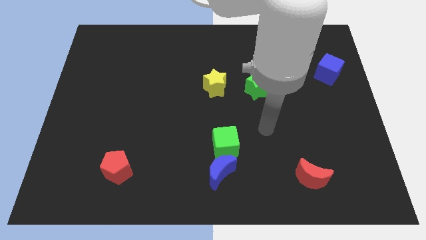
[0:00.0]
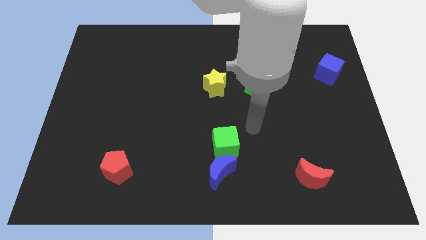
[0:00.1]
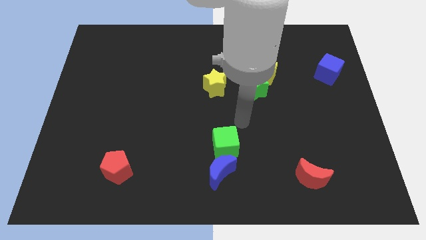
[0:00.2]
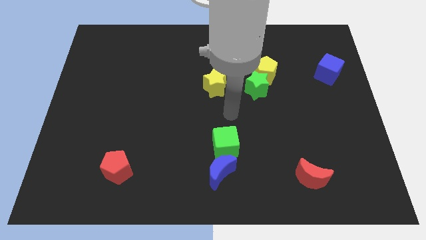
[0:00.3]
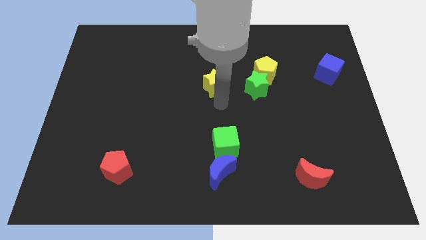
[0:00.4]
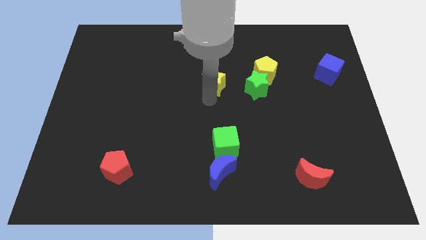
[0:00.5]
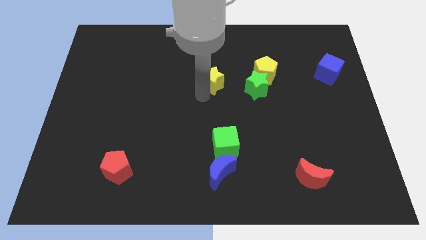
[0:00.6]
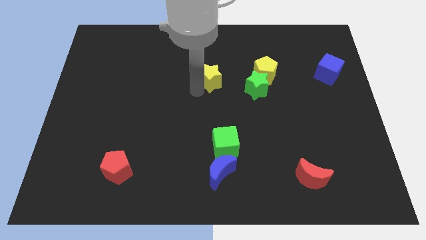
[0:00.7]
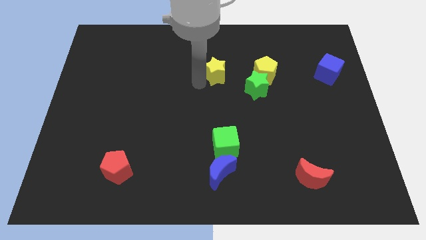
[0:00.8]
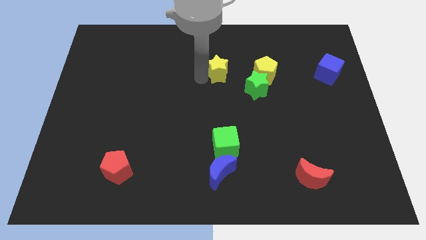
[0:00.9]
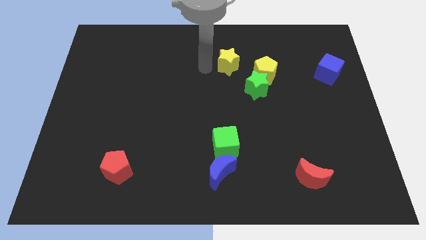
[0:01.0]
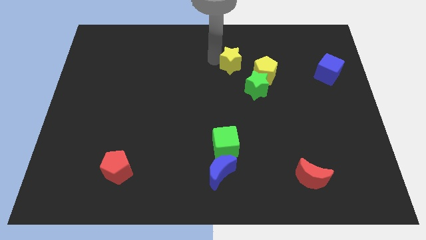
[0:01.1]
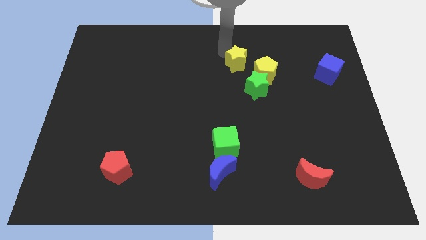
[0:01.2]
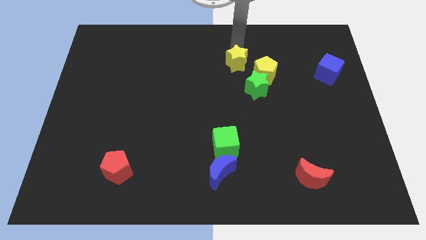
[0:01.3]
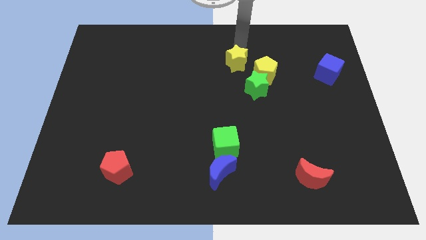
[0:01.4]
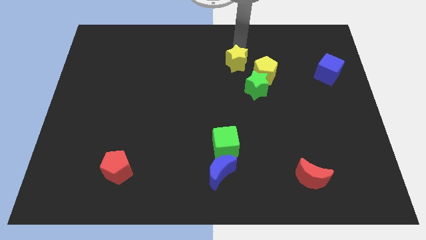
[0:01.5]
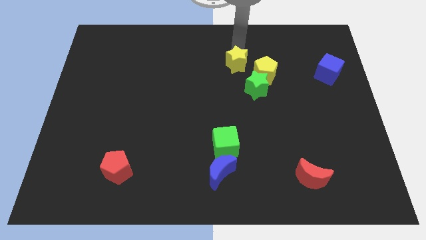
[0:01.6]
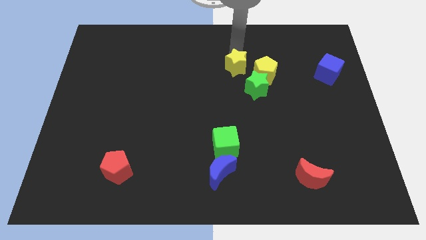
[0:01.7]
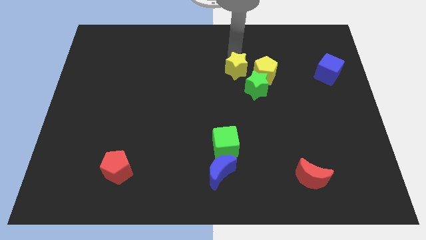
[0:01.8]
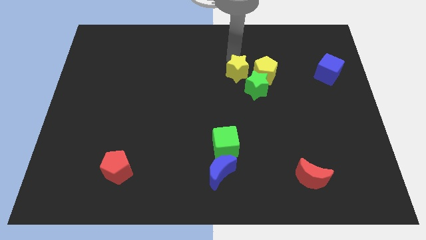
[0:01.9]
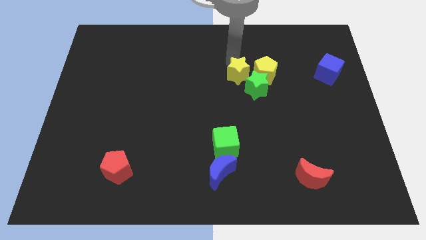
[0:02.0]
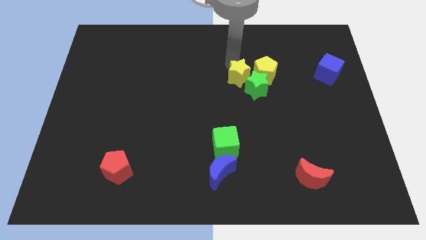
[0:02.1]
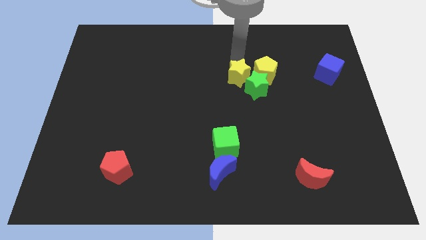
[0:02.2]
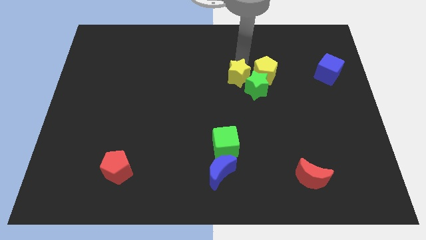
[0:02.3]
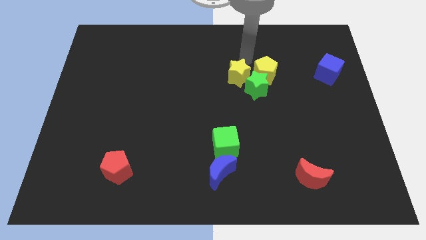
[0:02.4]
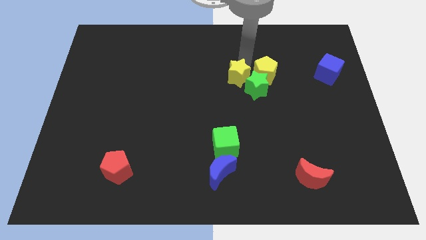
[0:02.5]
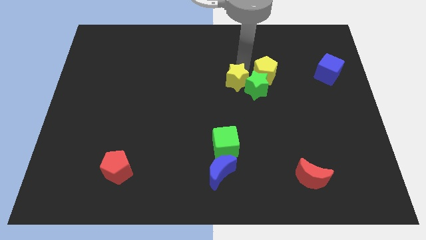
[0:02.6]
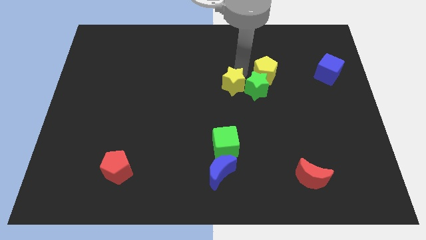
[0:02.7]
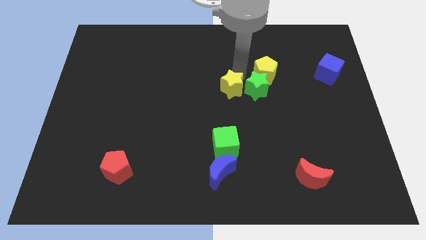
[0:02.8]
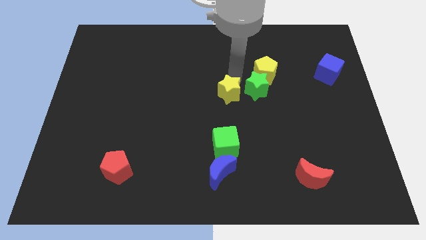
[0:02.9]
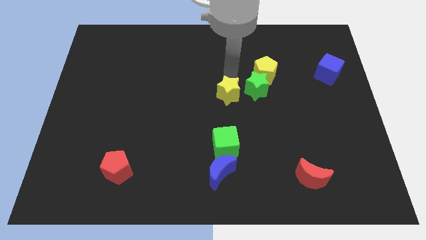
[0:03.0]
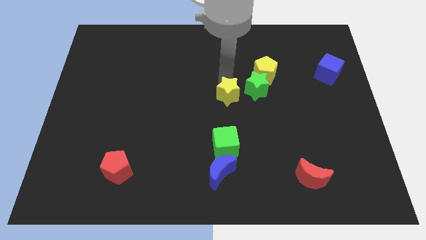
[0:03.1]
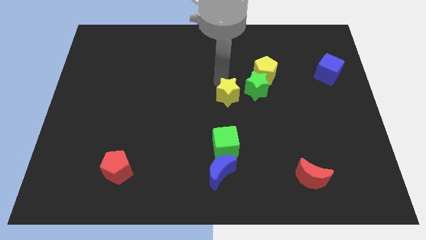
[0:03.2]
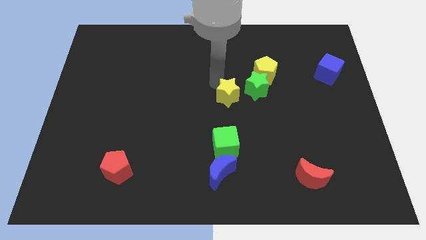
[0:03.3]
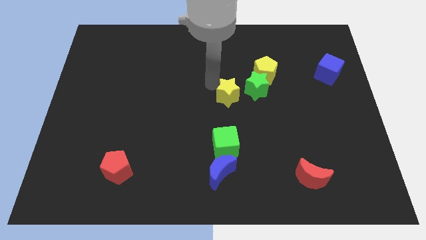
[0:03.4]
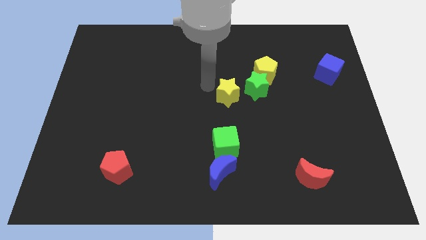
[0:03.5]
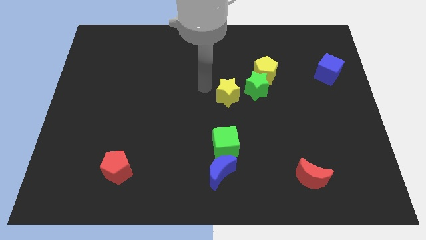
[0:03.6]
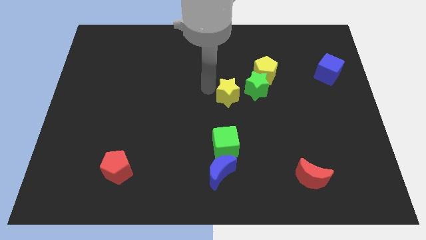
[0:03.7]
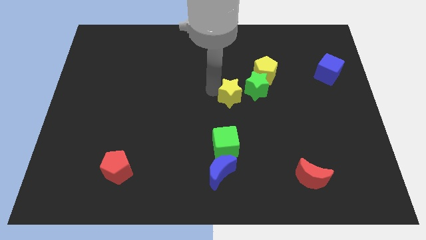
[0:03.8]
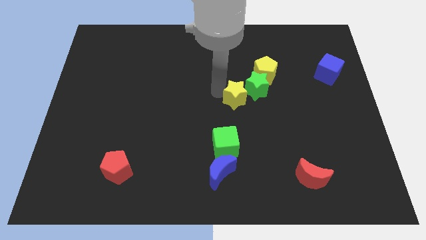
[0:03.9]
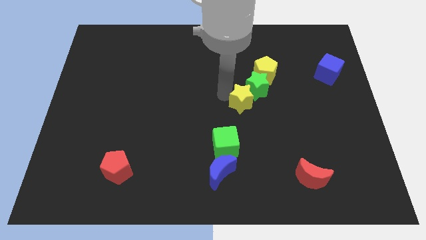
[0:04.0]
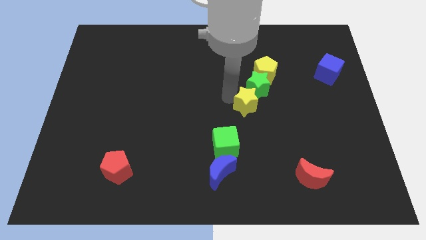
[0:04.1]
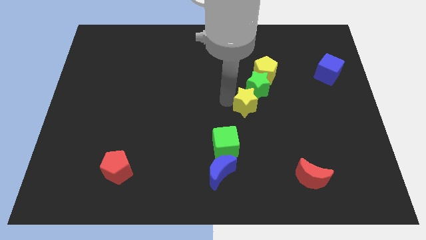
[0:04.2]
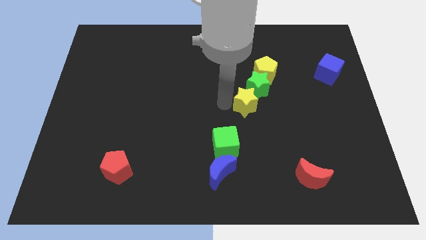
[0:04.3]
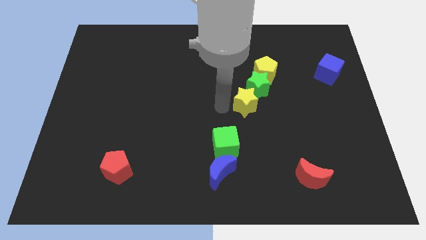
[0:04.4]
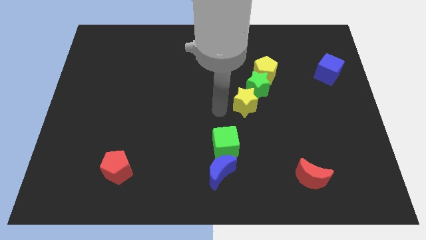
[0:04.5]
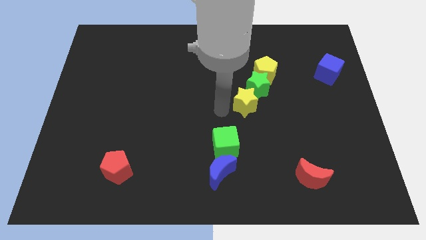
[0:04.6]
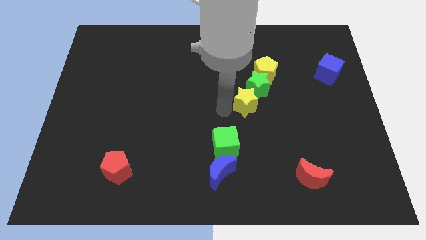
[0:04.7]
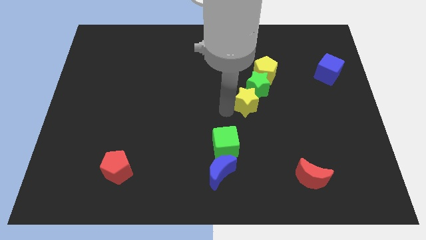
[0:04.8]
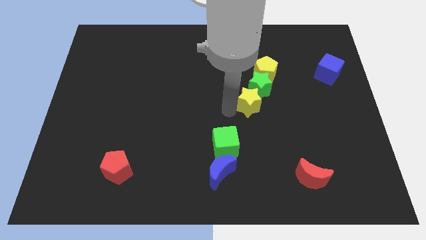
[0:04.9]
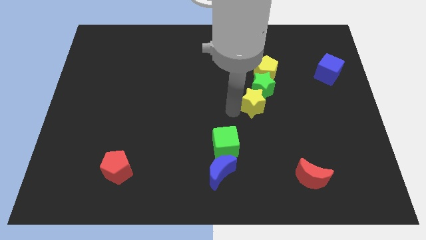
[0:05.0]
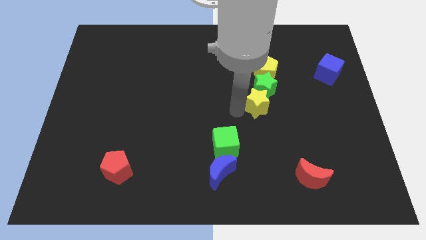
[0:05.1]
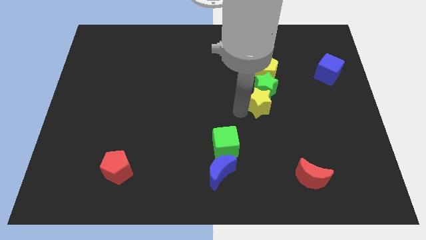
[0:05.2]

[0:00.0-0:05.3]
move the yellow star diagonally down and to the right of the green star

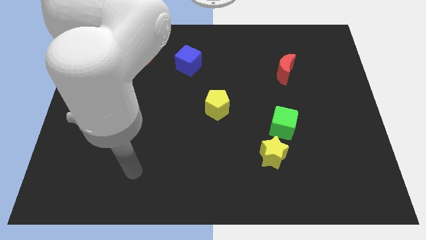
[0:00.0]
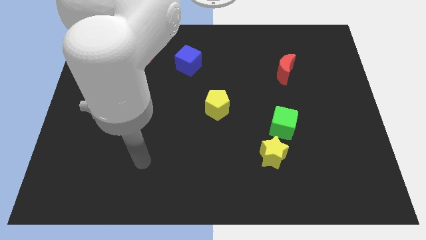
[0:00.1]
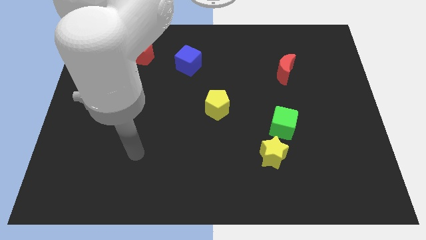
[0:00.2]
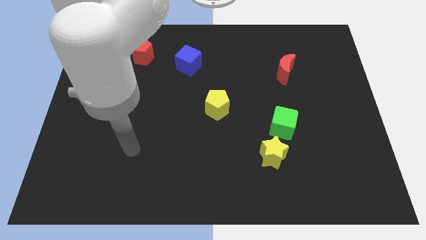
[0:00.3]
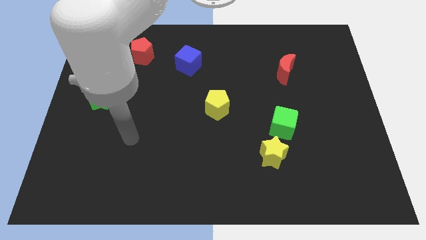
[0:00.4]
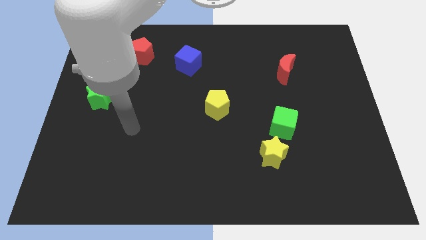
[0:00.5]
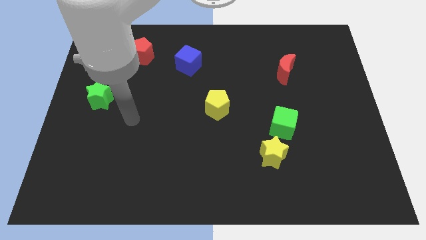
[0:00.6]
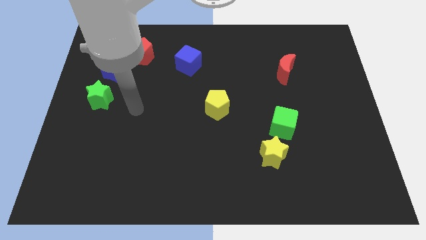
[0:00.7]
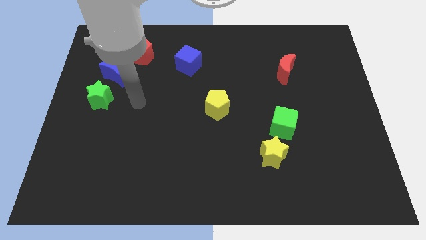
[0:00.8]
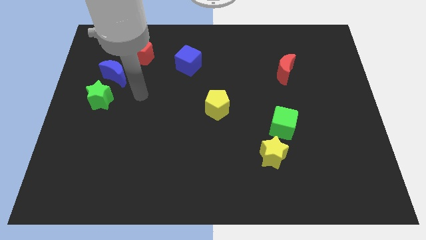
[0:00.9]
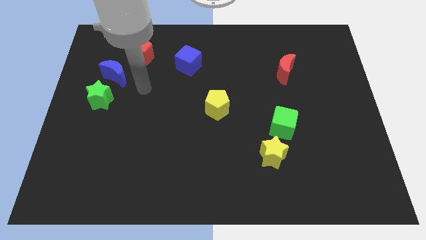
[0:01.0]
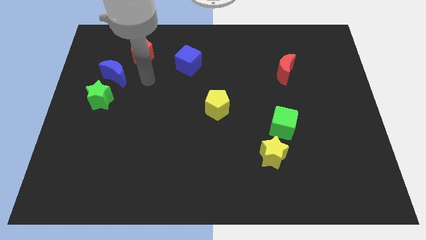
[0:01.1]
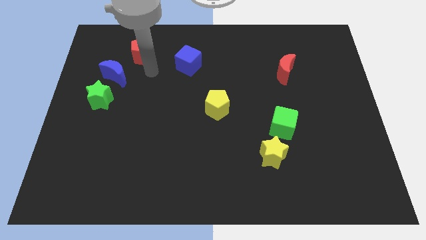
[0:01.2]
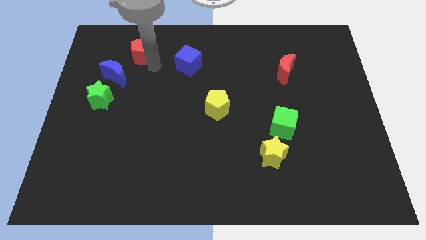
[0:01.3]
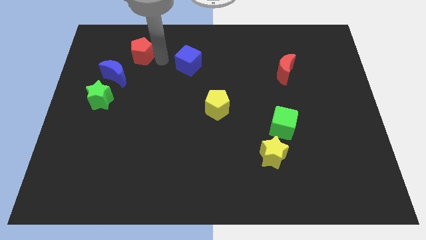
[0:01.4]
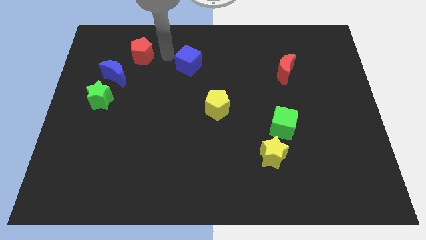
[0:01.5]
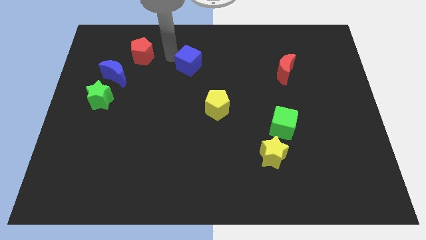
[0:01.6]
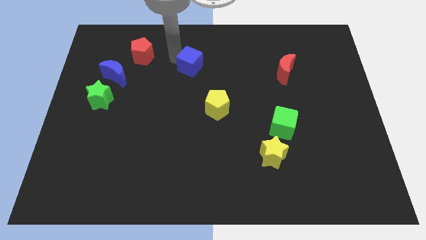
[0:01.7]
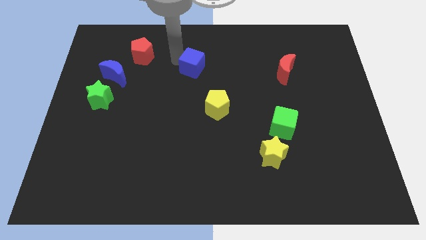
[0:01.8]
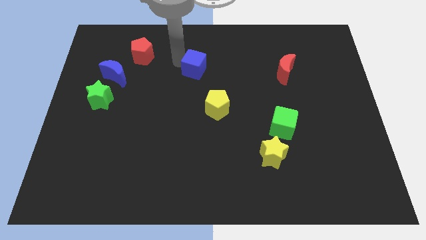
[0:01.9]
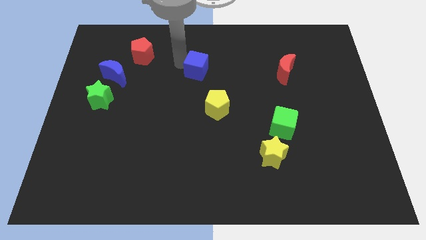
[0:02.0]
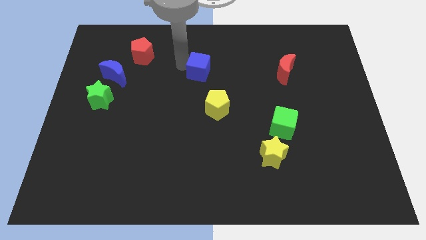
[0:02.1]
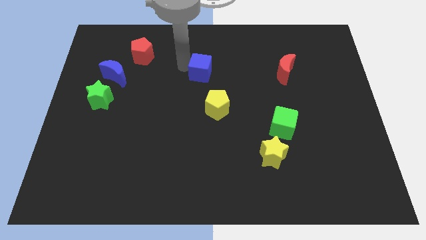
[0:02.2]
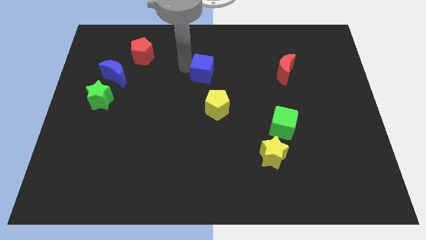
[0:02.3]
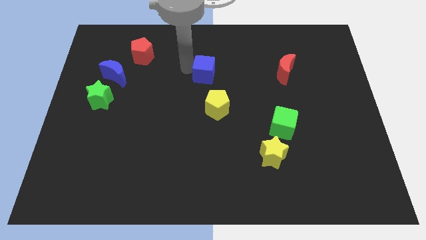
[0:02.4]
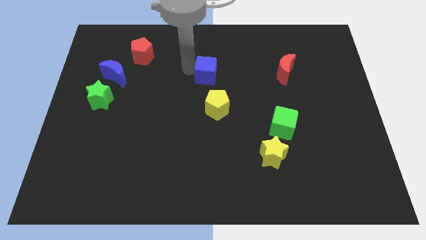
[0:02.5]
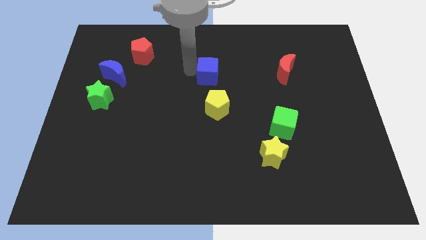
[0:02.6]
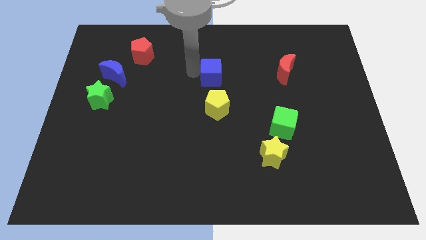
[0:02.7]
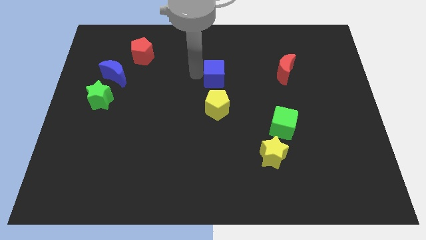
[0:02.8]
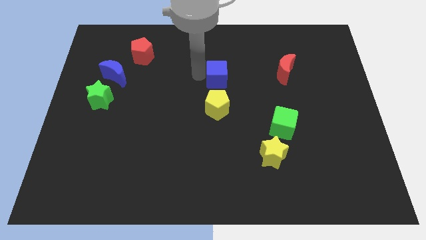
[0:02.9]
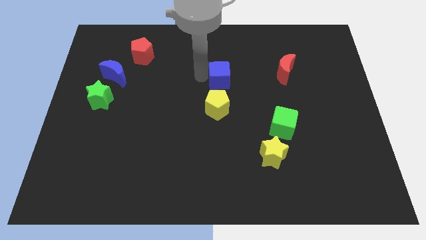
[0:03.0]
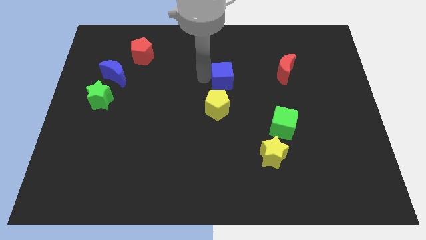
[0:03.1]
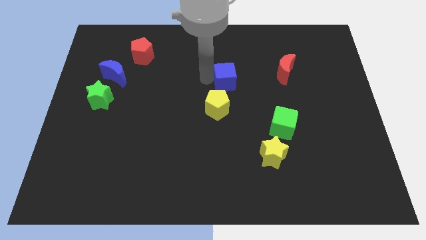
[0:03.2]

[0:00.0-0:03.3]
push the blue cube left of the red moon
